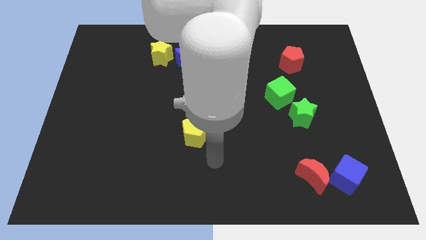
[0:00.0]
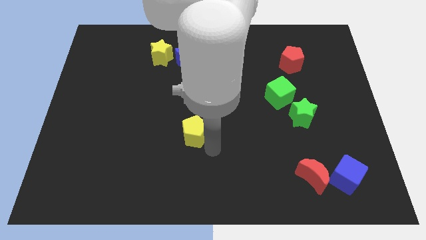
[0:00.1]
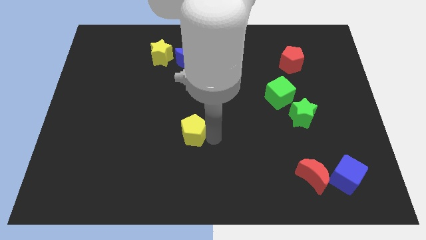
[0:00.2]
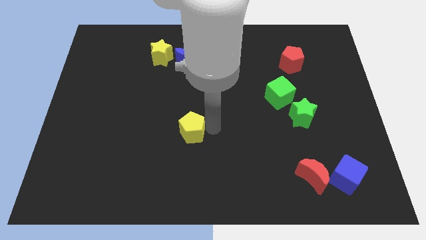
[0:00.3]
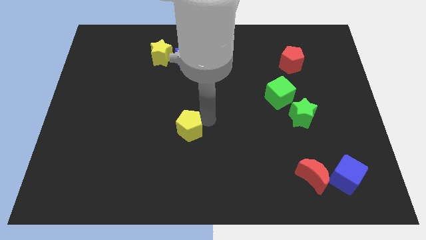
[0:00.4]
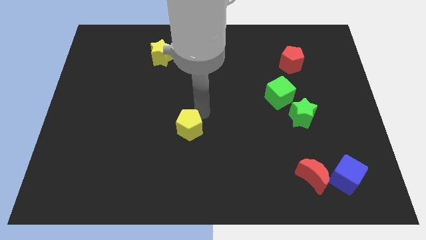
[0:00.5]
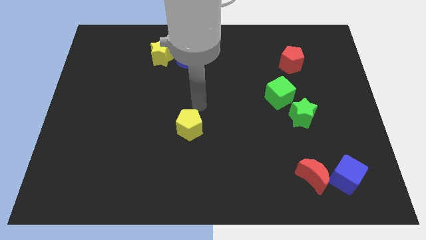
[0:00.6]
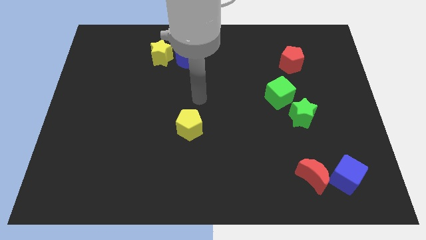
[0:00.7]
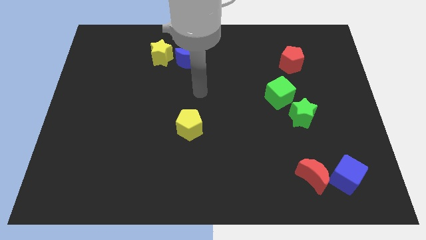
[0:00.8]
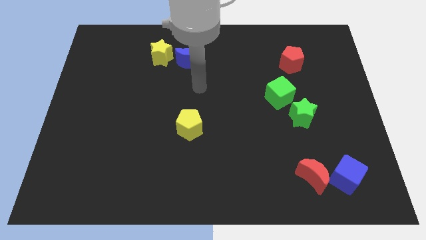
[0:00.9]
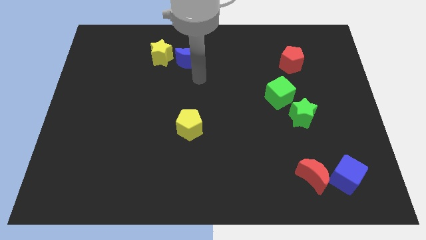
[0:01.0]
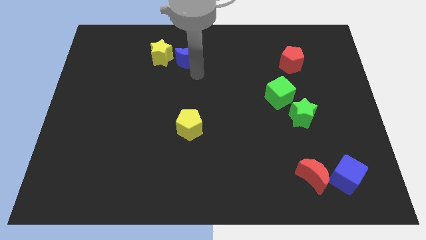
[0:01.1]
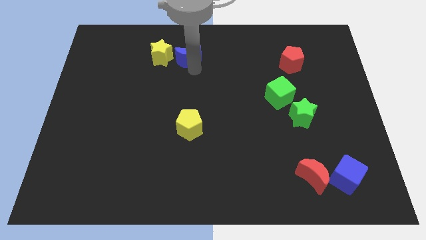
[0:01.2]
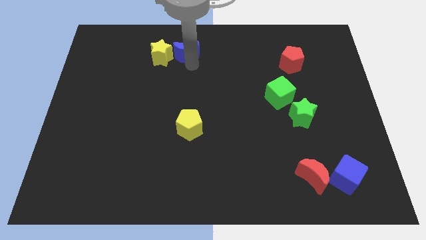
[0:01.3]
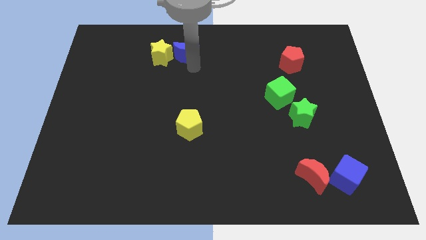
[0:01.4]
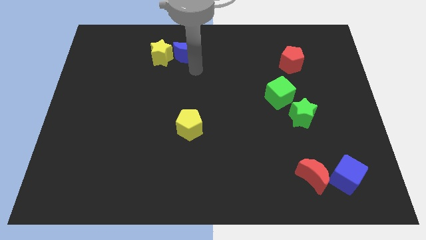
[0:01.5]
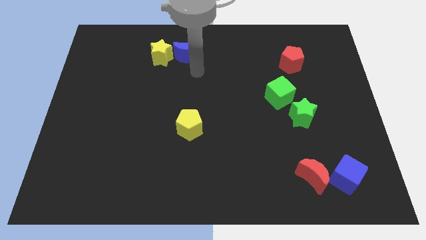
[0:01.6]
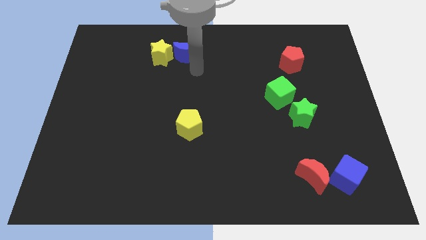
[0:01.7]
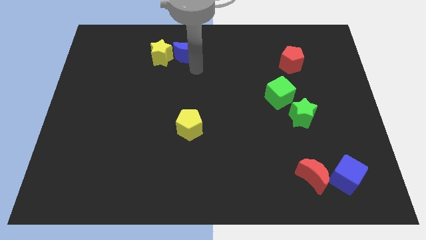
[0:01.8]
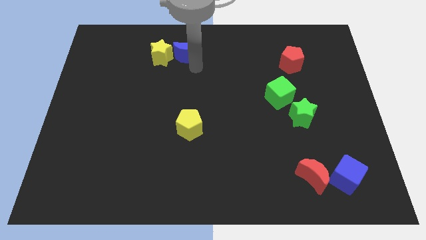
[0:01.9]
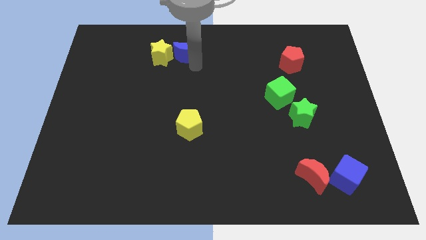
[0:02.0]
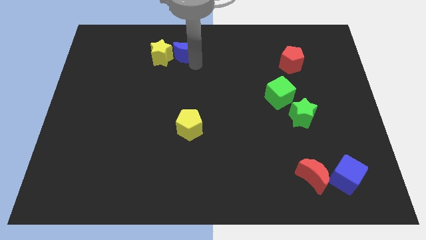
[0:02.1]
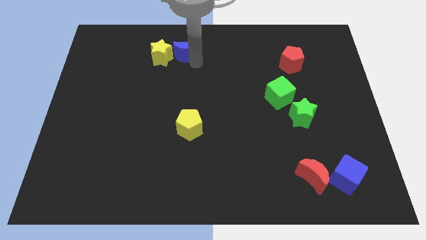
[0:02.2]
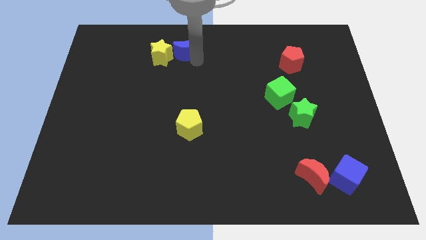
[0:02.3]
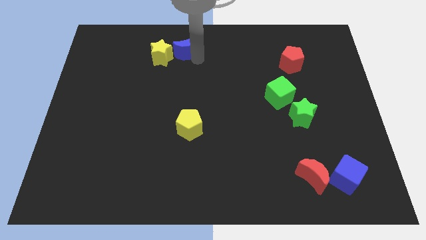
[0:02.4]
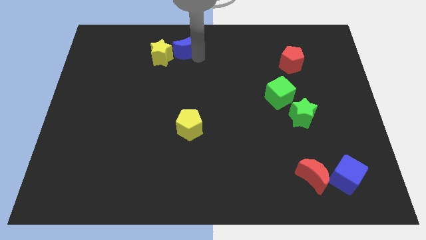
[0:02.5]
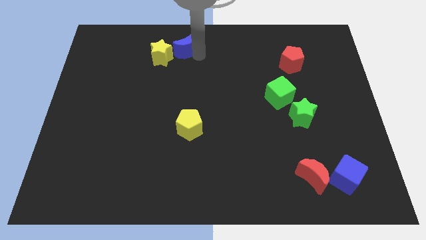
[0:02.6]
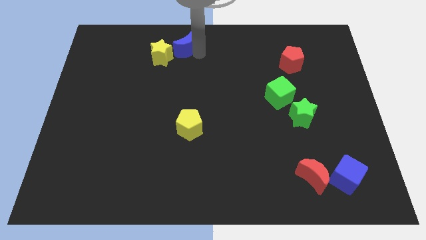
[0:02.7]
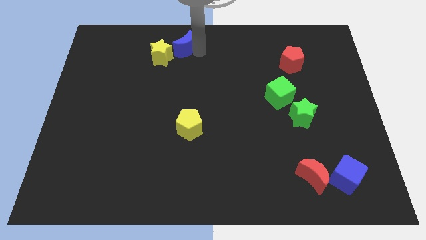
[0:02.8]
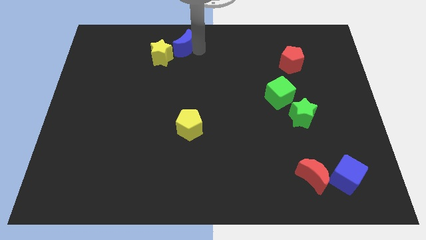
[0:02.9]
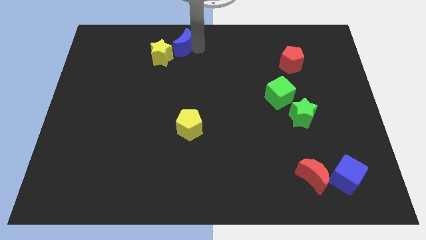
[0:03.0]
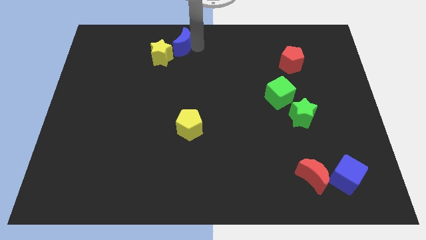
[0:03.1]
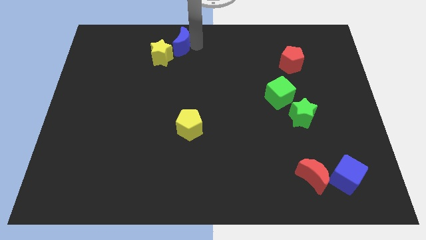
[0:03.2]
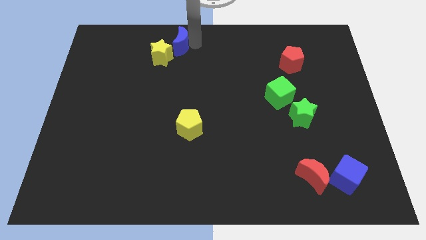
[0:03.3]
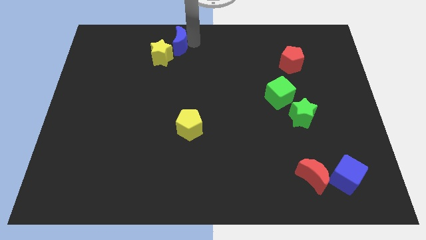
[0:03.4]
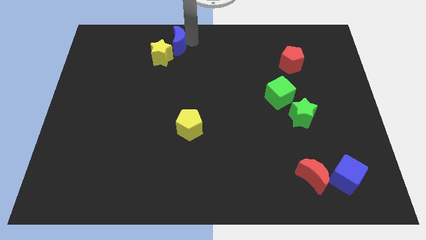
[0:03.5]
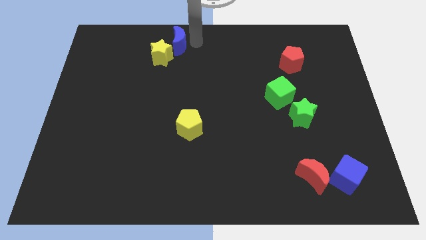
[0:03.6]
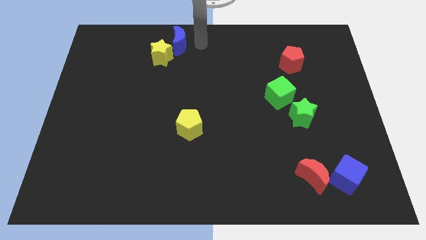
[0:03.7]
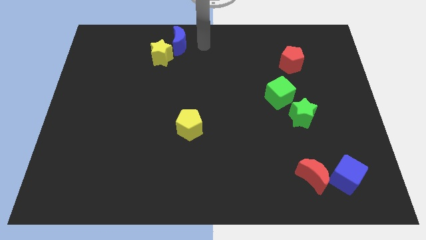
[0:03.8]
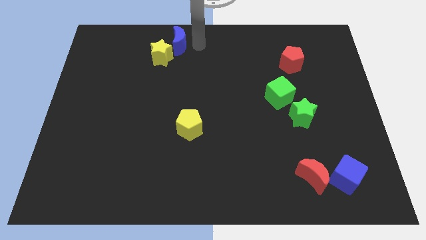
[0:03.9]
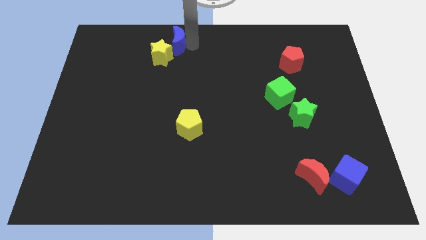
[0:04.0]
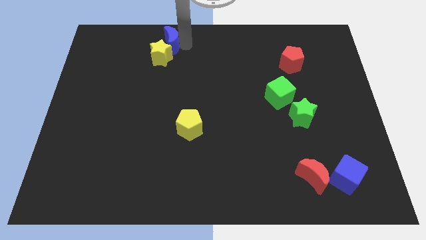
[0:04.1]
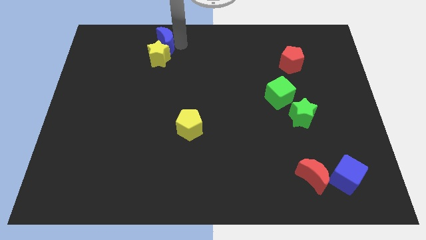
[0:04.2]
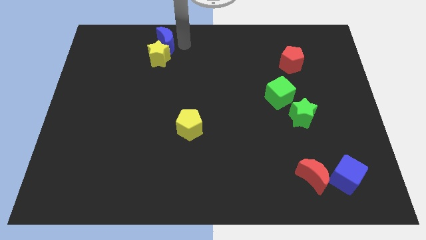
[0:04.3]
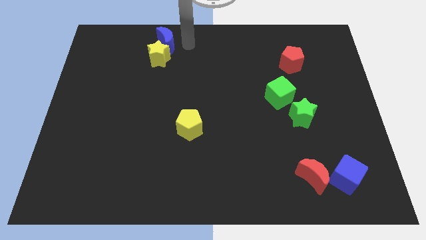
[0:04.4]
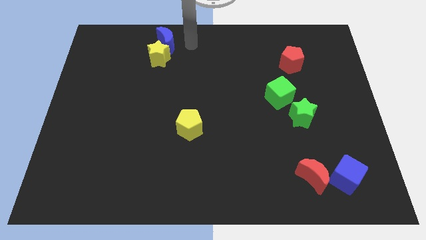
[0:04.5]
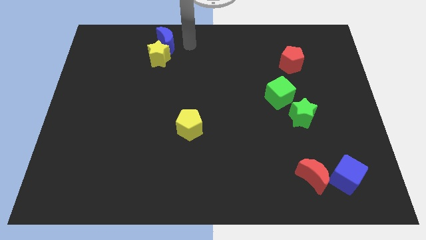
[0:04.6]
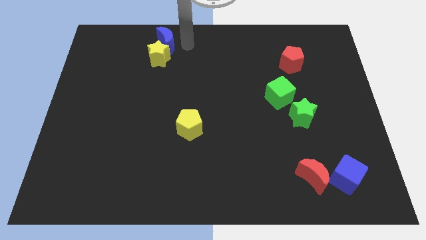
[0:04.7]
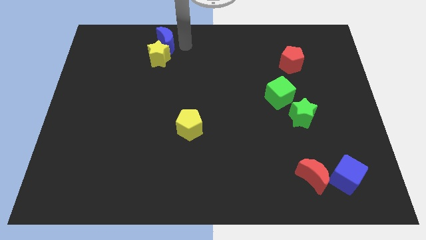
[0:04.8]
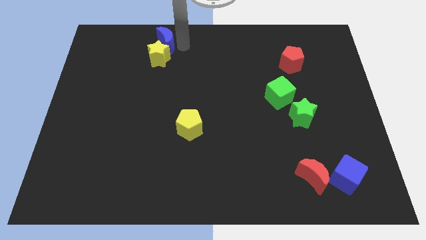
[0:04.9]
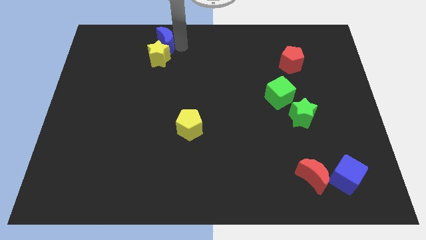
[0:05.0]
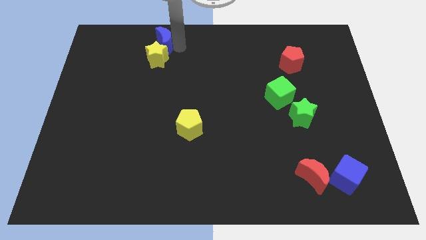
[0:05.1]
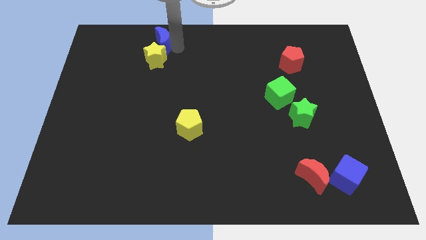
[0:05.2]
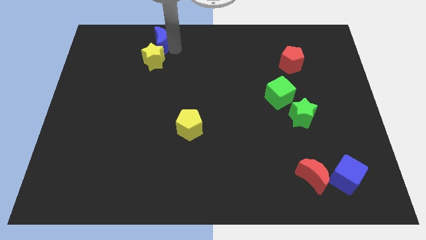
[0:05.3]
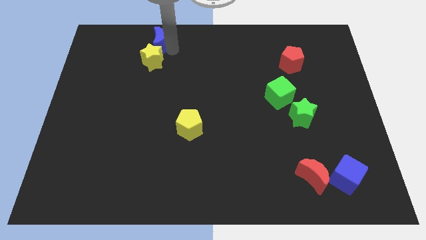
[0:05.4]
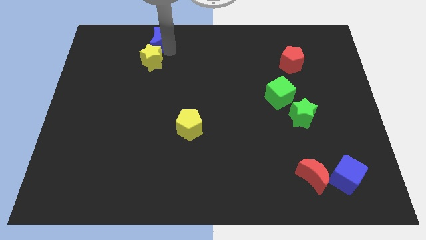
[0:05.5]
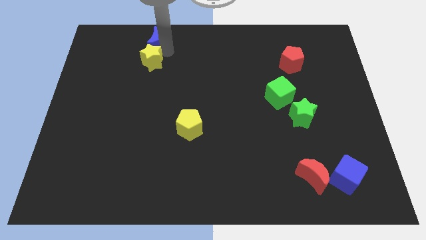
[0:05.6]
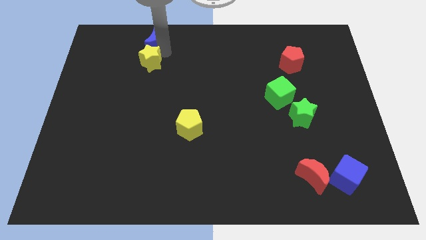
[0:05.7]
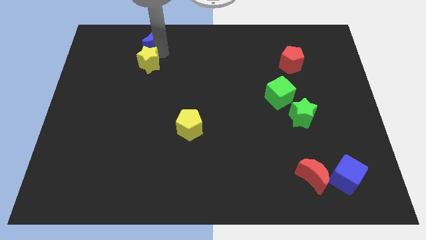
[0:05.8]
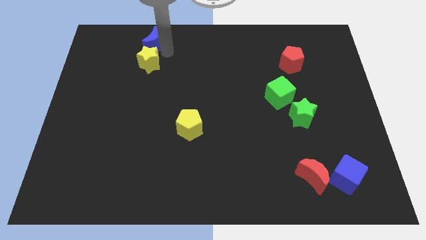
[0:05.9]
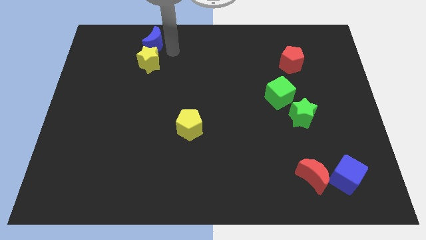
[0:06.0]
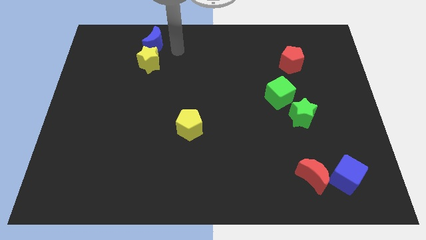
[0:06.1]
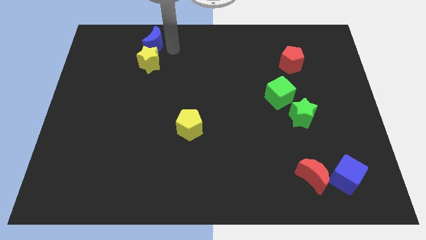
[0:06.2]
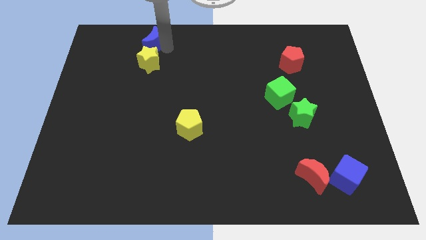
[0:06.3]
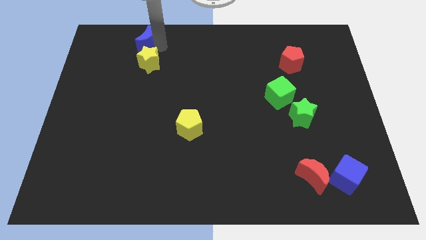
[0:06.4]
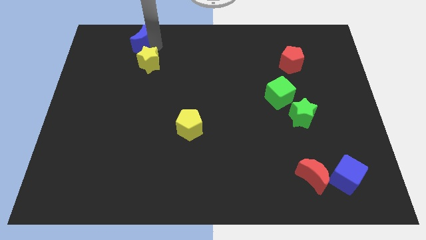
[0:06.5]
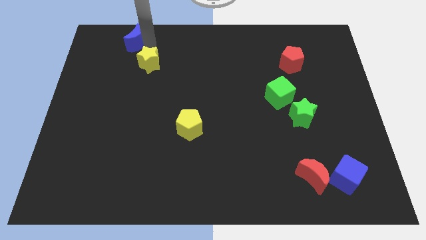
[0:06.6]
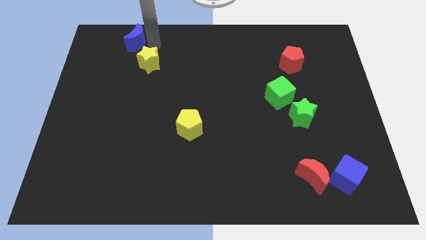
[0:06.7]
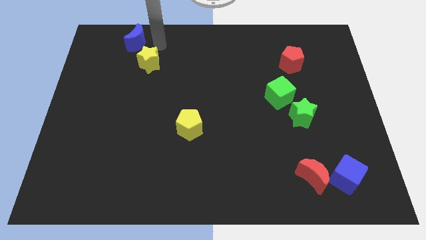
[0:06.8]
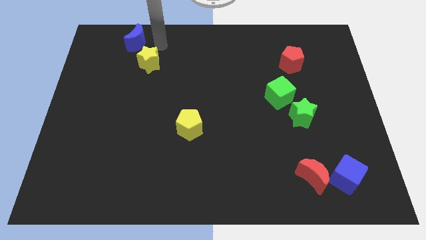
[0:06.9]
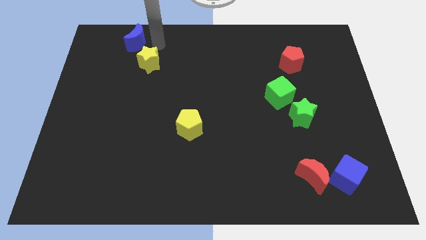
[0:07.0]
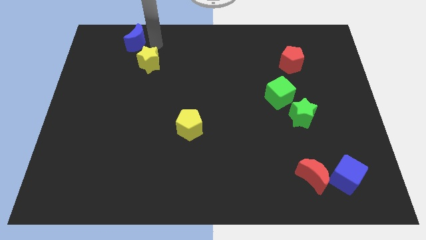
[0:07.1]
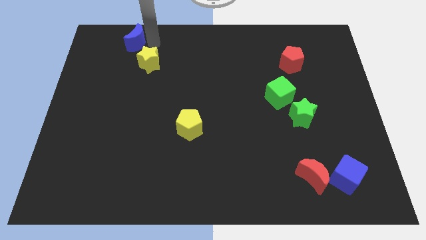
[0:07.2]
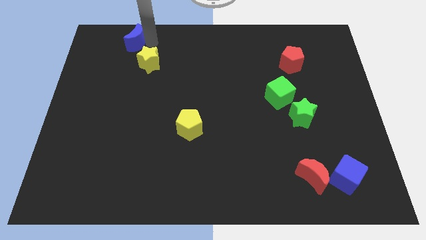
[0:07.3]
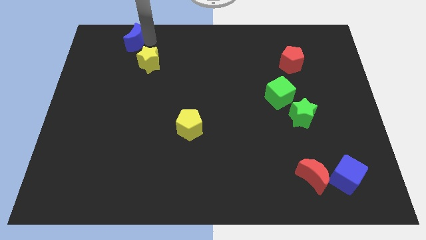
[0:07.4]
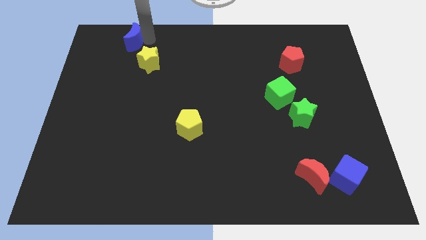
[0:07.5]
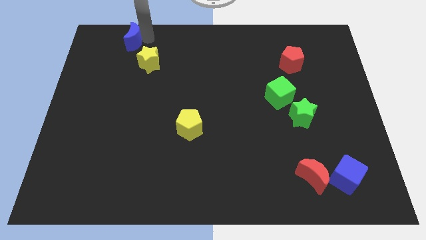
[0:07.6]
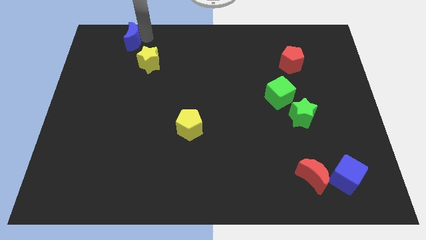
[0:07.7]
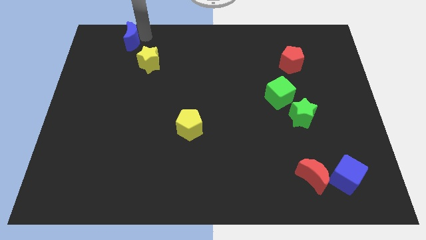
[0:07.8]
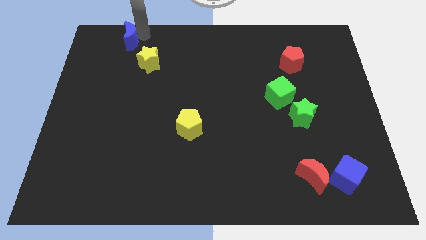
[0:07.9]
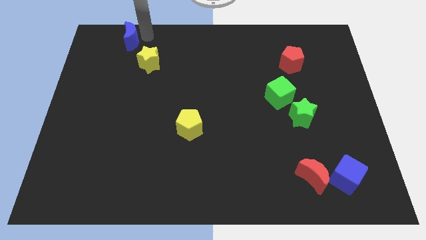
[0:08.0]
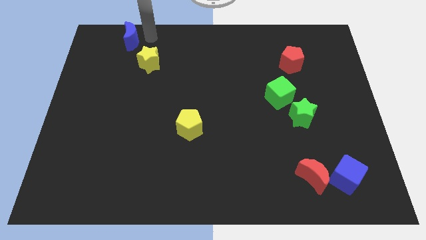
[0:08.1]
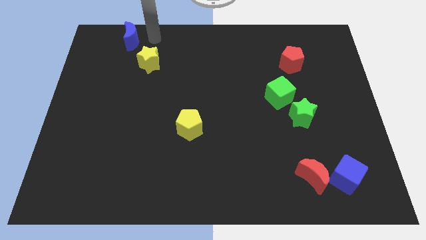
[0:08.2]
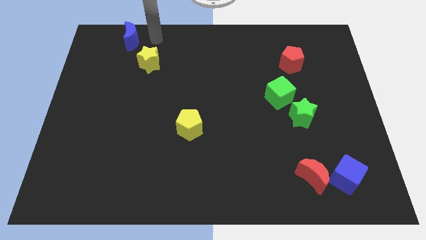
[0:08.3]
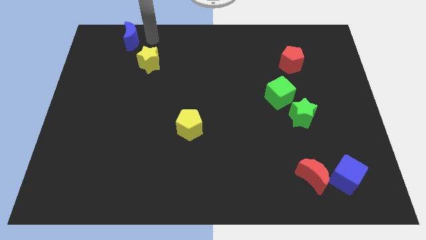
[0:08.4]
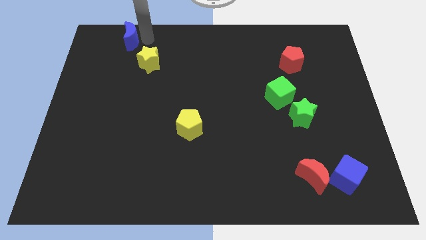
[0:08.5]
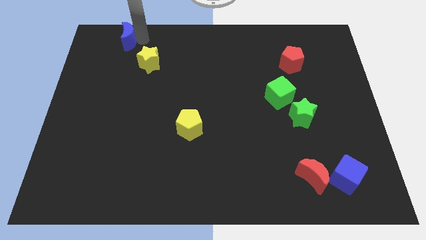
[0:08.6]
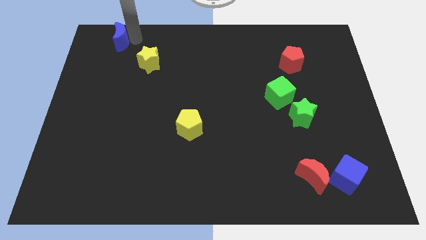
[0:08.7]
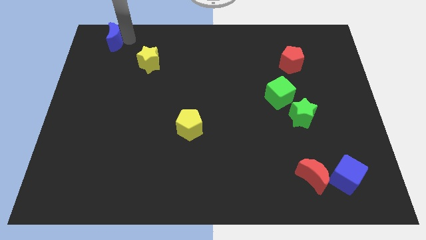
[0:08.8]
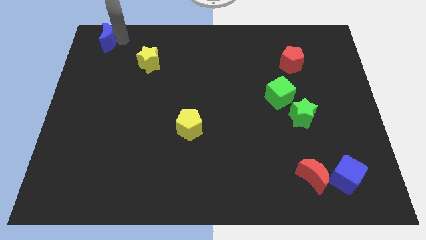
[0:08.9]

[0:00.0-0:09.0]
slide the blue moon to the top left corner
